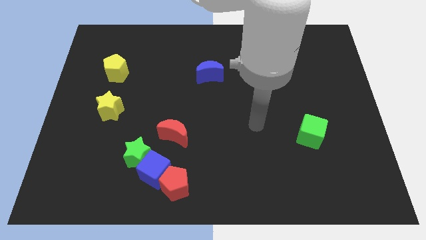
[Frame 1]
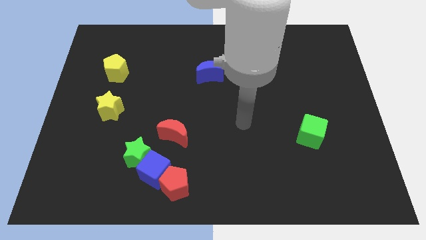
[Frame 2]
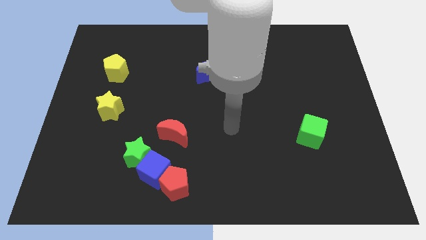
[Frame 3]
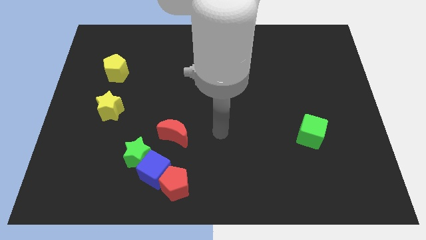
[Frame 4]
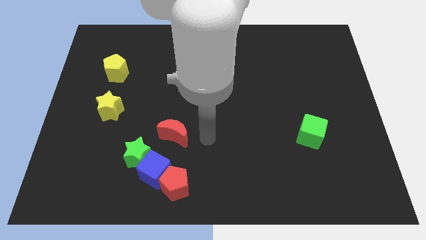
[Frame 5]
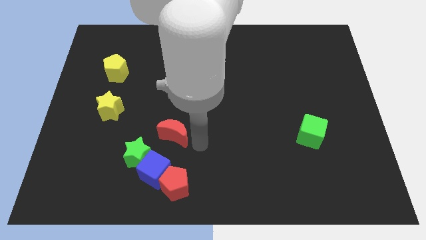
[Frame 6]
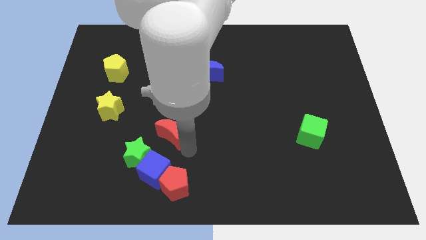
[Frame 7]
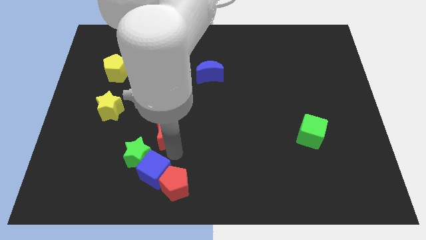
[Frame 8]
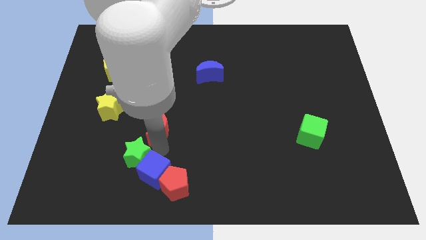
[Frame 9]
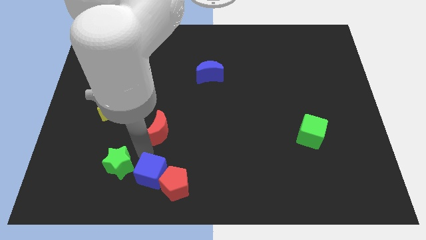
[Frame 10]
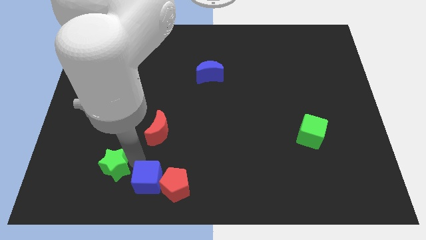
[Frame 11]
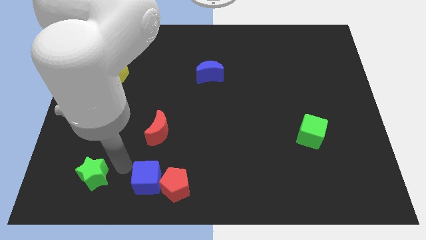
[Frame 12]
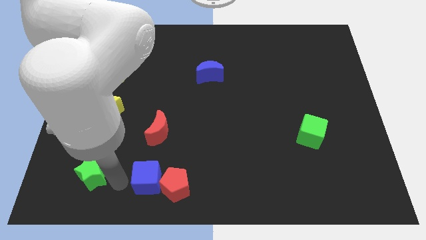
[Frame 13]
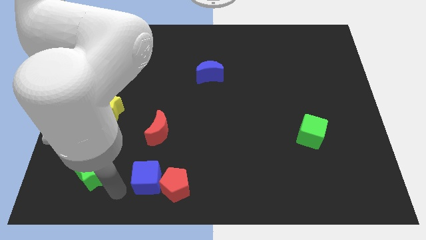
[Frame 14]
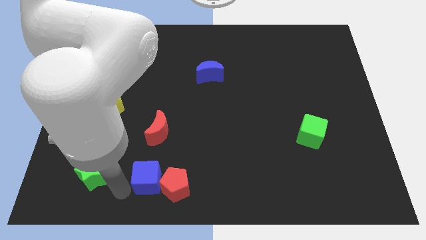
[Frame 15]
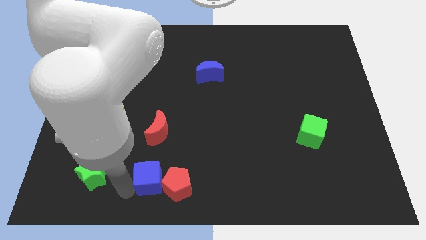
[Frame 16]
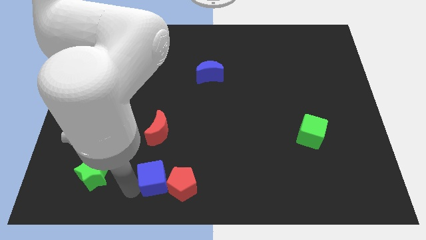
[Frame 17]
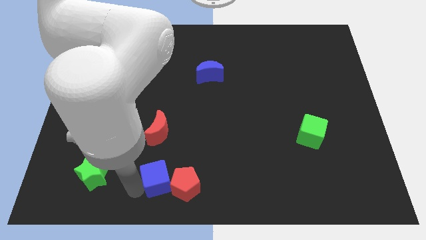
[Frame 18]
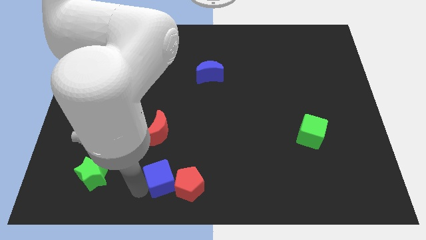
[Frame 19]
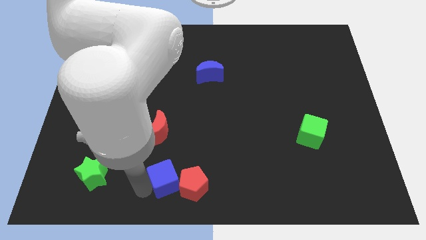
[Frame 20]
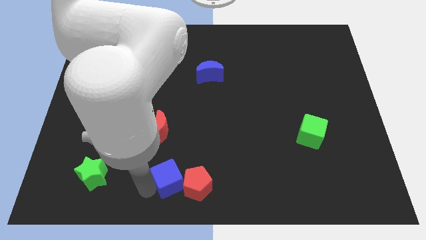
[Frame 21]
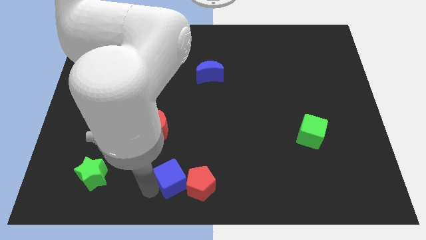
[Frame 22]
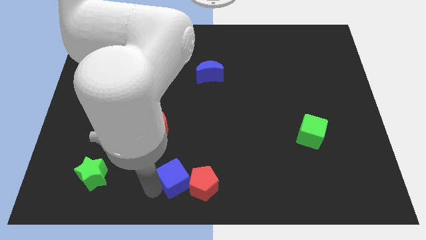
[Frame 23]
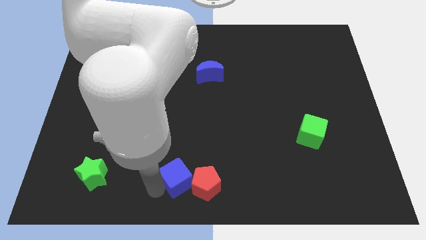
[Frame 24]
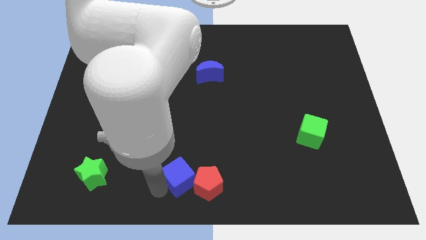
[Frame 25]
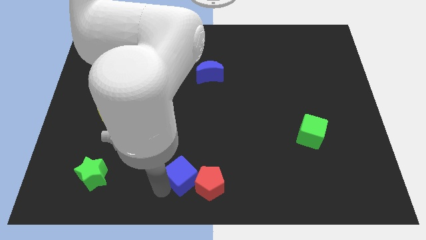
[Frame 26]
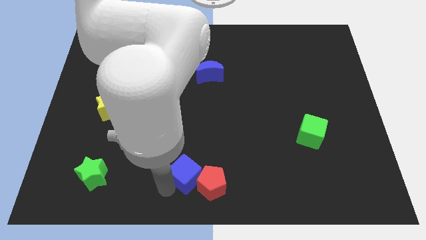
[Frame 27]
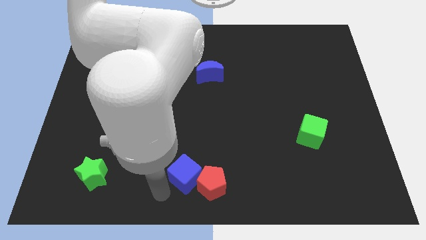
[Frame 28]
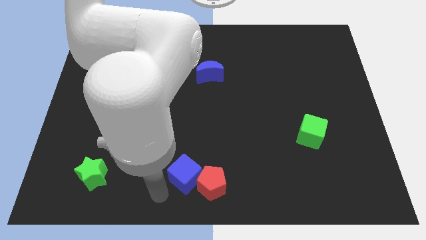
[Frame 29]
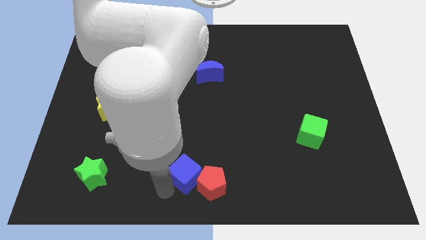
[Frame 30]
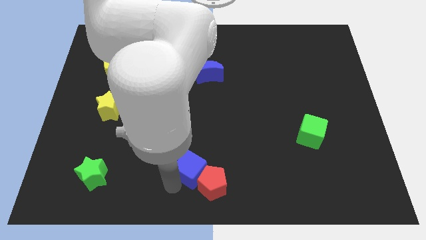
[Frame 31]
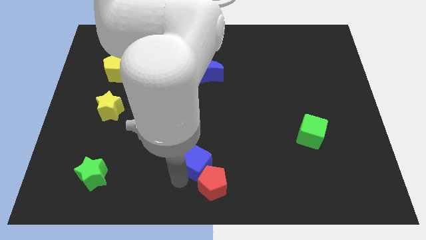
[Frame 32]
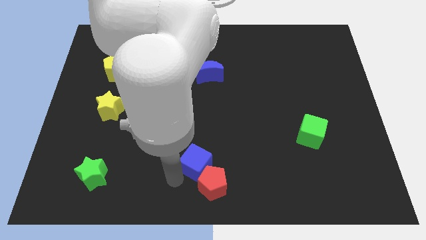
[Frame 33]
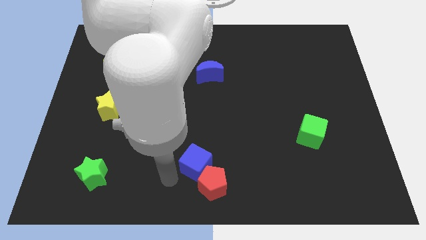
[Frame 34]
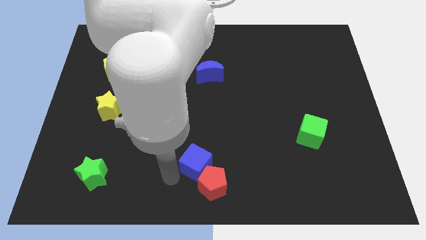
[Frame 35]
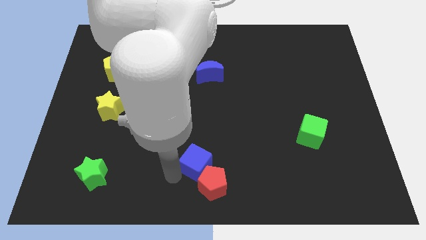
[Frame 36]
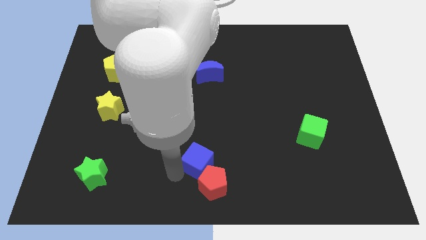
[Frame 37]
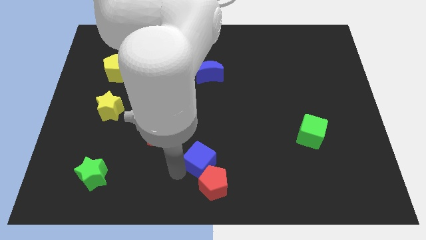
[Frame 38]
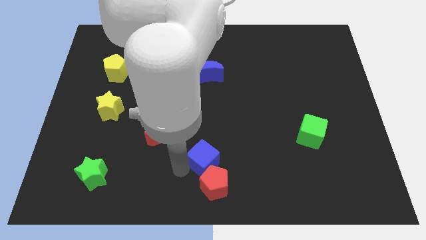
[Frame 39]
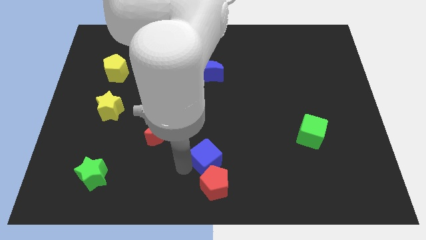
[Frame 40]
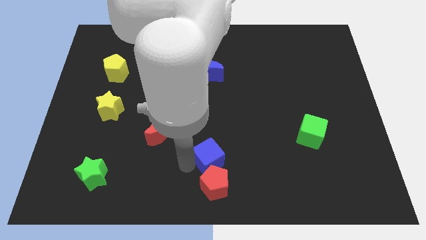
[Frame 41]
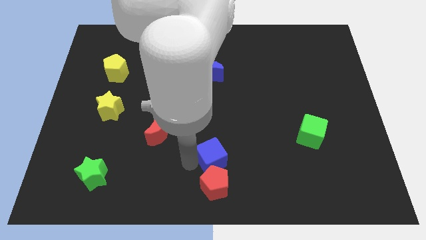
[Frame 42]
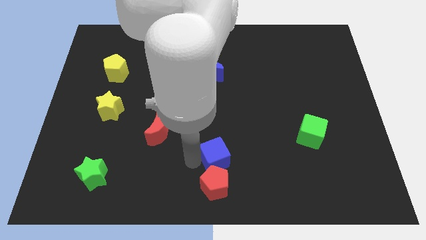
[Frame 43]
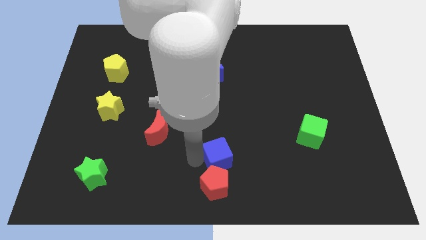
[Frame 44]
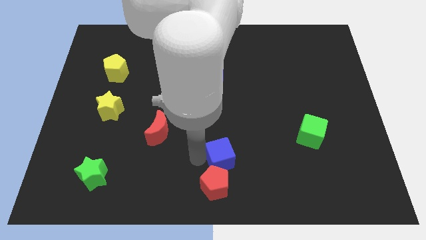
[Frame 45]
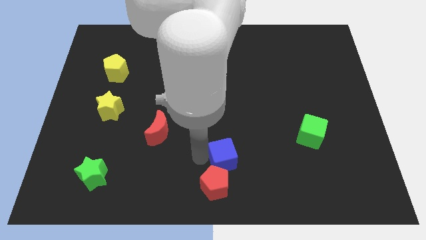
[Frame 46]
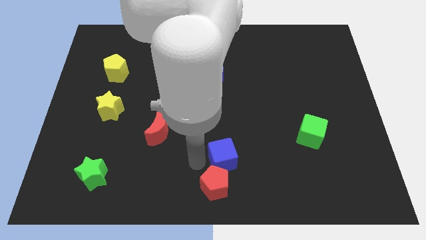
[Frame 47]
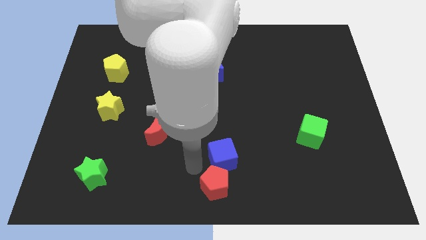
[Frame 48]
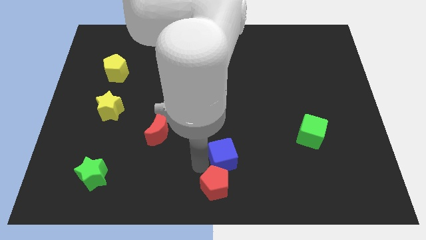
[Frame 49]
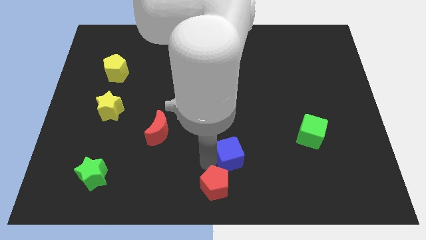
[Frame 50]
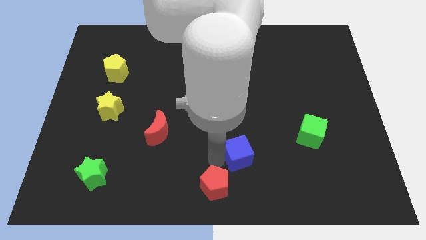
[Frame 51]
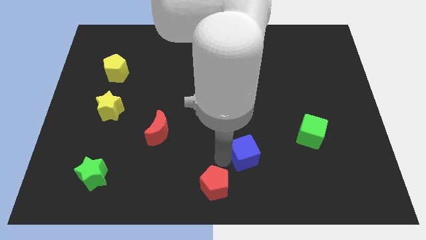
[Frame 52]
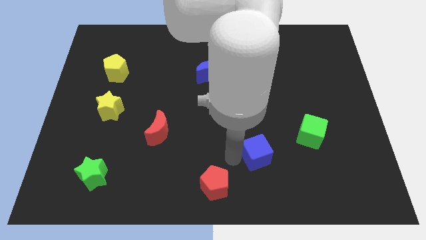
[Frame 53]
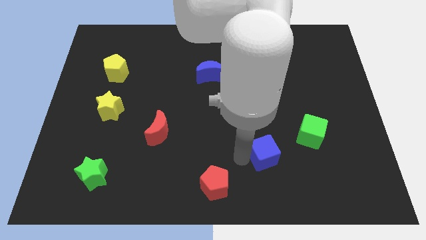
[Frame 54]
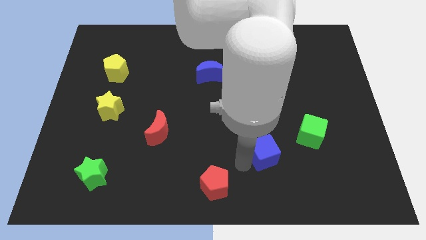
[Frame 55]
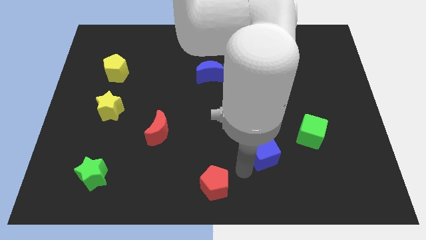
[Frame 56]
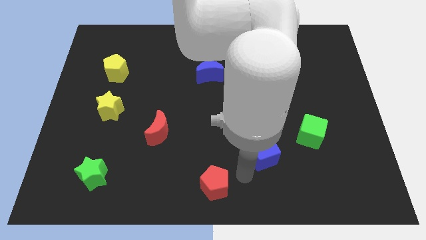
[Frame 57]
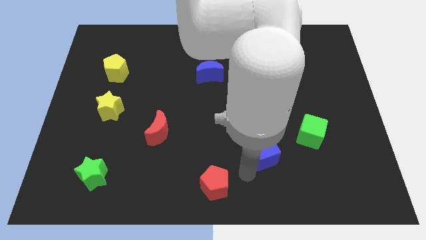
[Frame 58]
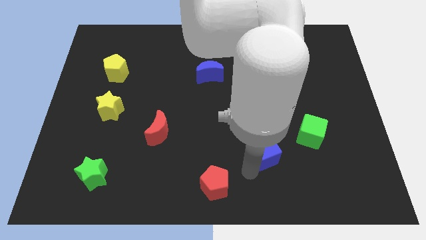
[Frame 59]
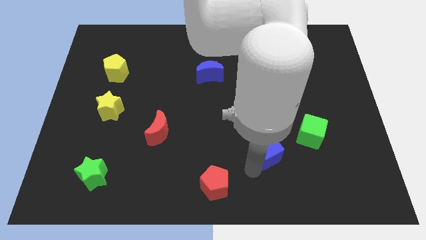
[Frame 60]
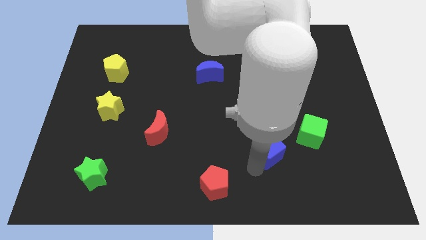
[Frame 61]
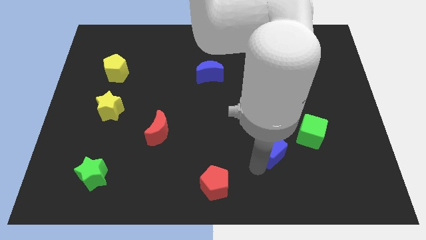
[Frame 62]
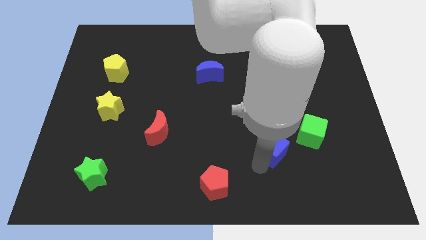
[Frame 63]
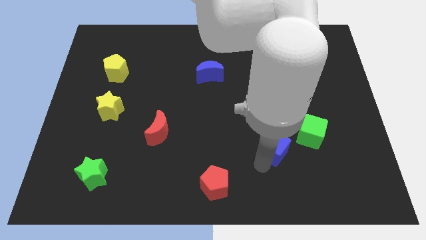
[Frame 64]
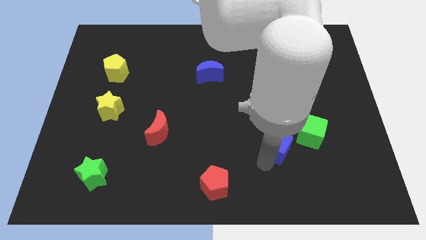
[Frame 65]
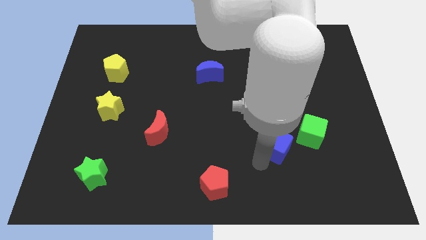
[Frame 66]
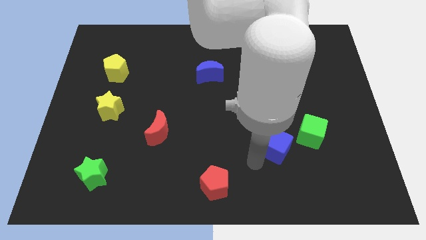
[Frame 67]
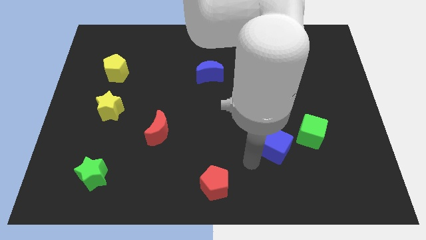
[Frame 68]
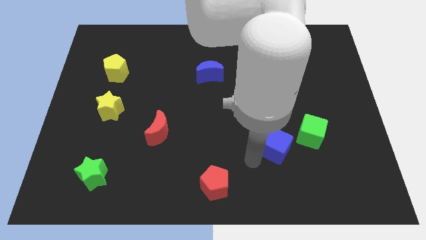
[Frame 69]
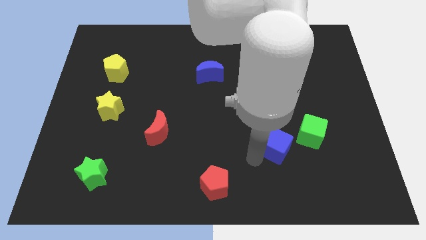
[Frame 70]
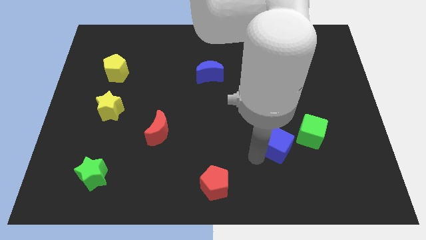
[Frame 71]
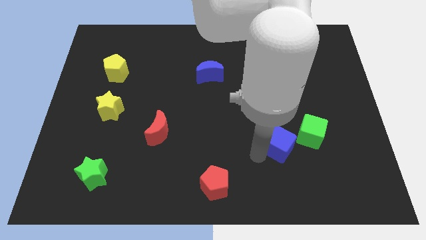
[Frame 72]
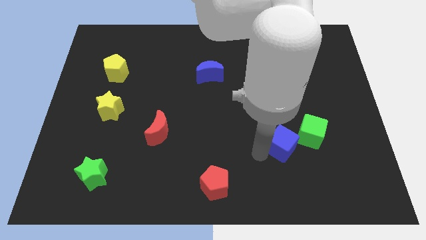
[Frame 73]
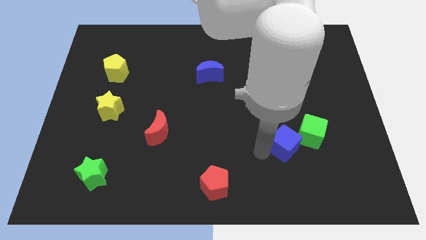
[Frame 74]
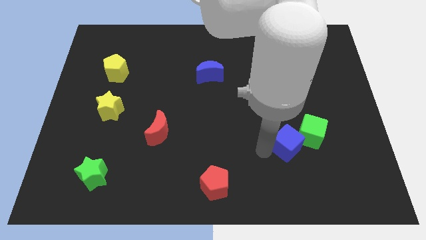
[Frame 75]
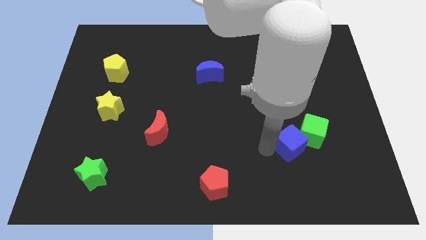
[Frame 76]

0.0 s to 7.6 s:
move the blue cube to the green cube

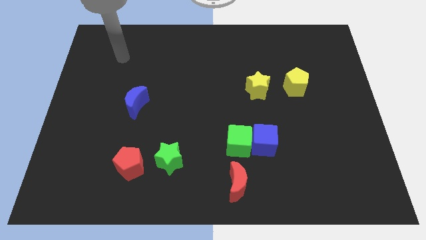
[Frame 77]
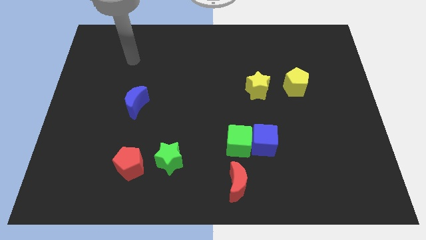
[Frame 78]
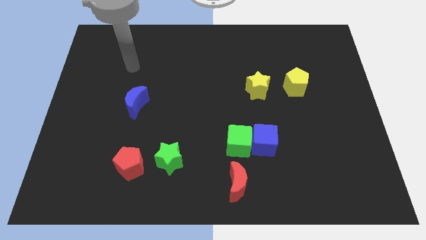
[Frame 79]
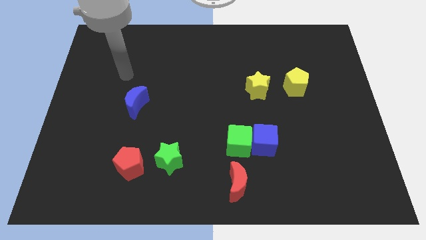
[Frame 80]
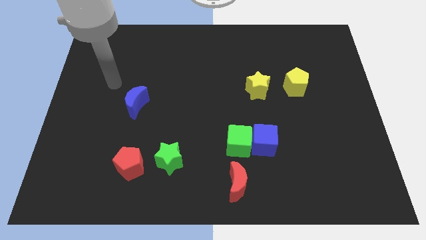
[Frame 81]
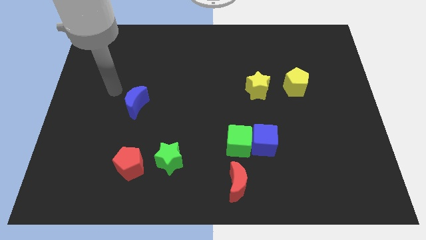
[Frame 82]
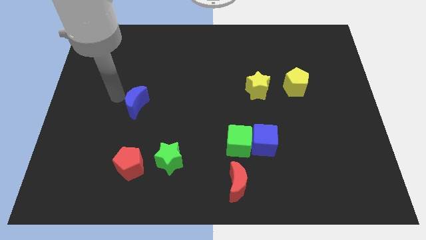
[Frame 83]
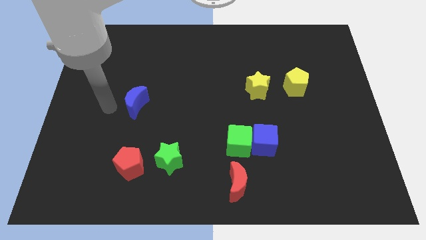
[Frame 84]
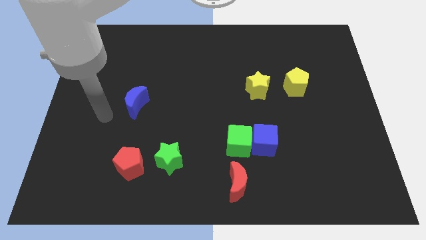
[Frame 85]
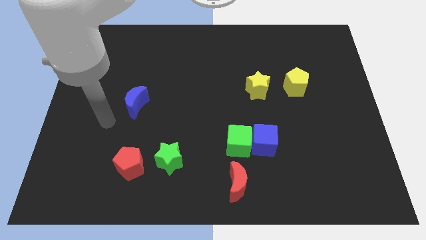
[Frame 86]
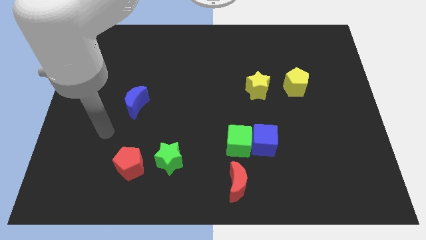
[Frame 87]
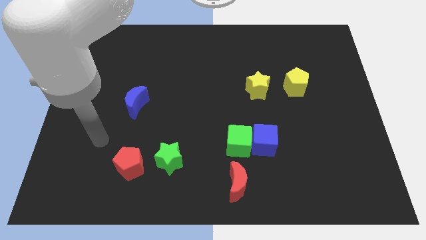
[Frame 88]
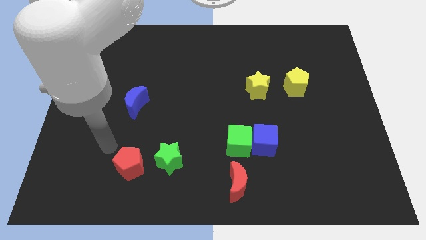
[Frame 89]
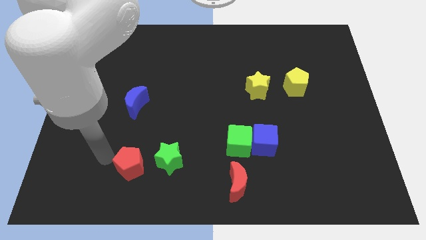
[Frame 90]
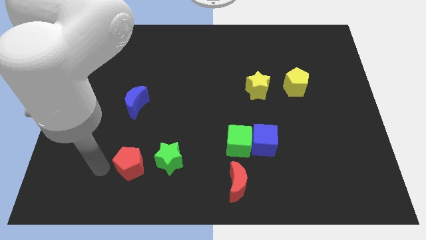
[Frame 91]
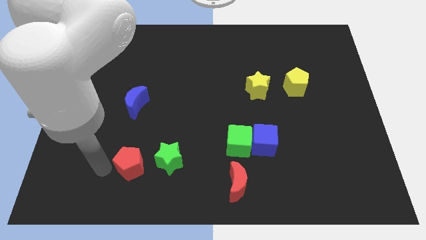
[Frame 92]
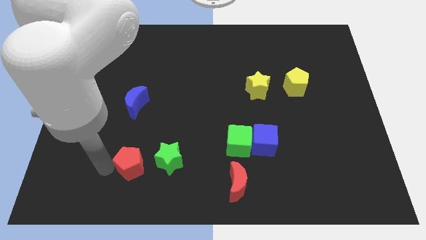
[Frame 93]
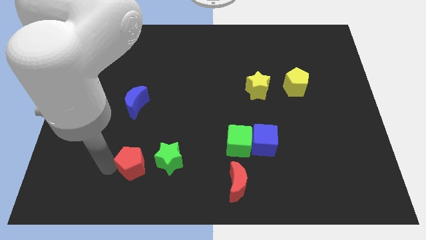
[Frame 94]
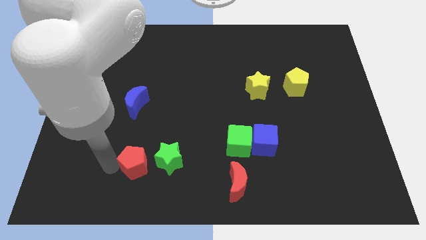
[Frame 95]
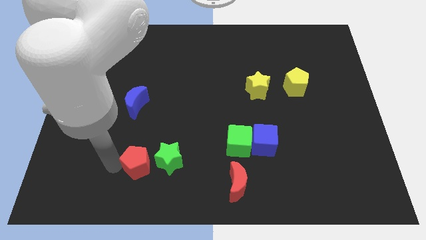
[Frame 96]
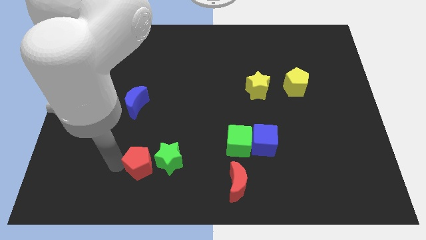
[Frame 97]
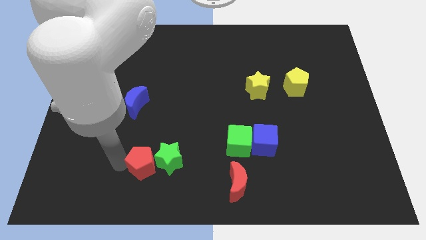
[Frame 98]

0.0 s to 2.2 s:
push the red pentagon towards the green star
